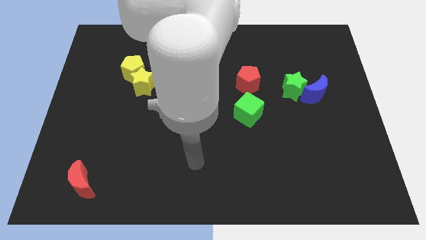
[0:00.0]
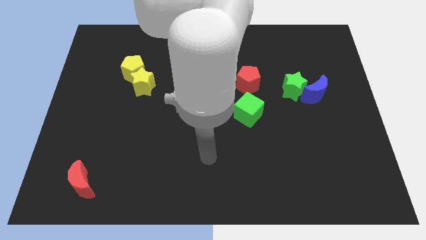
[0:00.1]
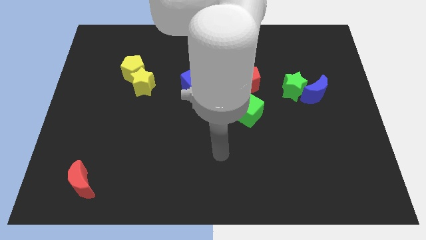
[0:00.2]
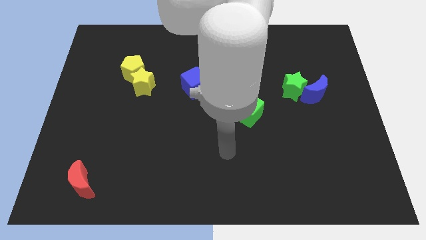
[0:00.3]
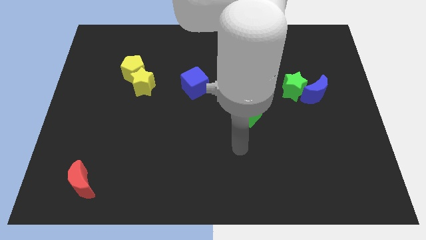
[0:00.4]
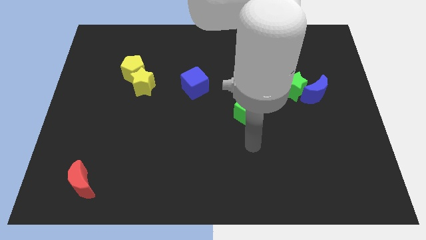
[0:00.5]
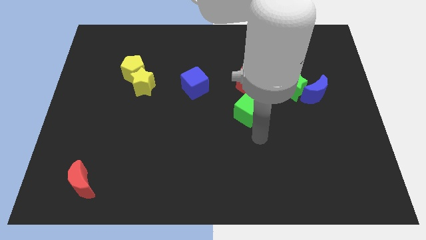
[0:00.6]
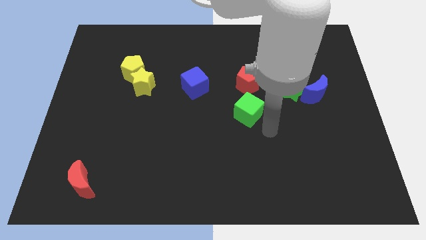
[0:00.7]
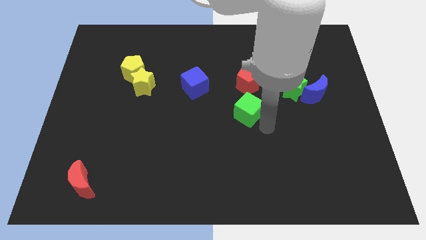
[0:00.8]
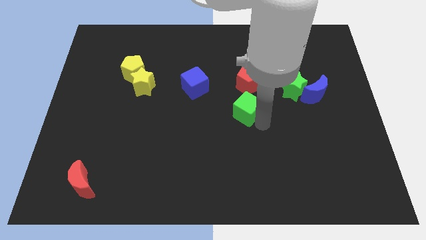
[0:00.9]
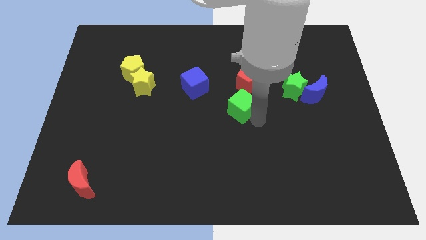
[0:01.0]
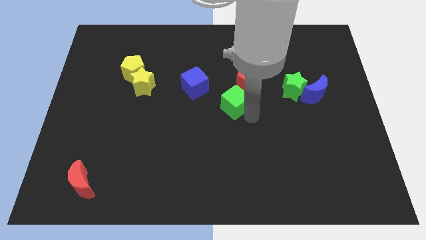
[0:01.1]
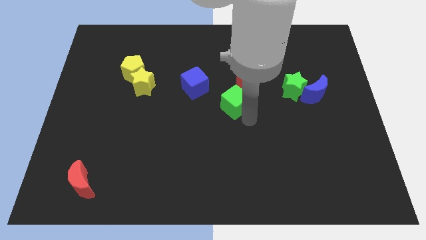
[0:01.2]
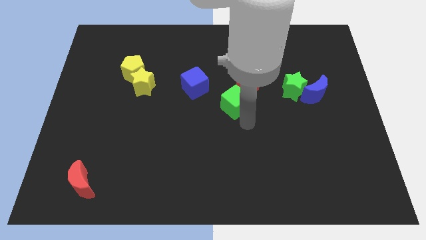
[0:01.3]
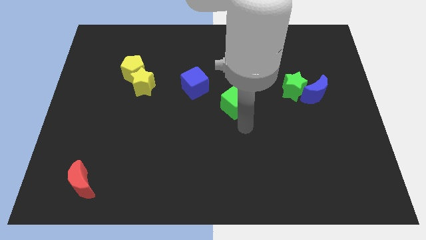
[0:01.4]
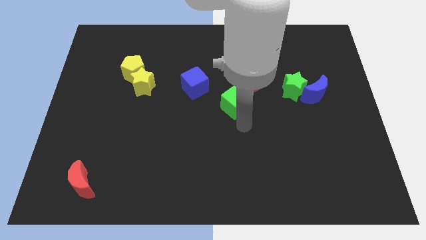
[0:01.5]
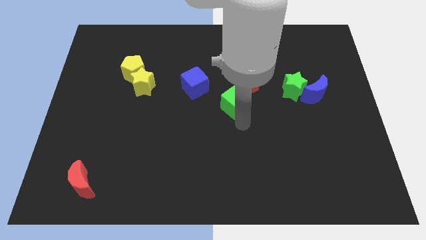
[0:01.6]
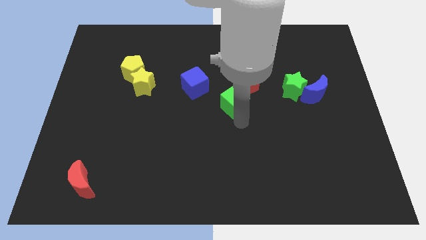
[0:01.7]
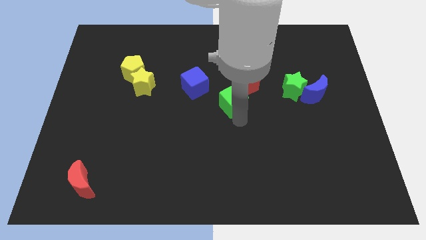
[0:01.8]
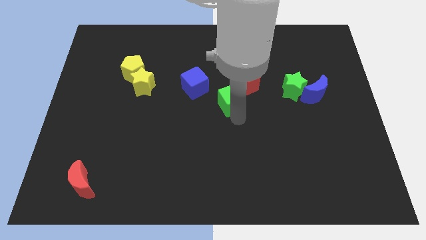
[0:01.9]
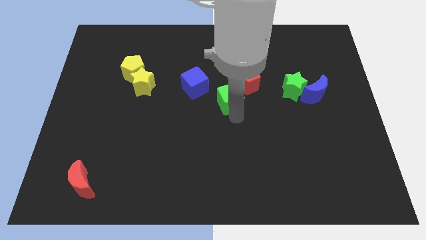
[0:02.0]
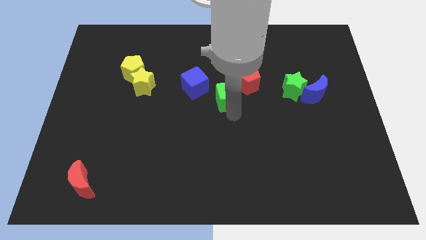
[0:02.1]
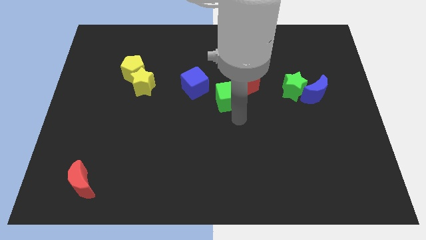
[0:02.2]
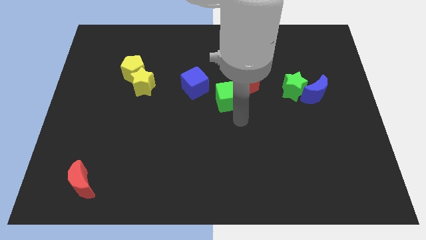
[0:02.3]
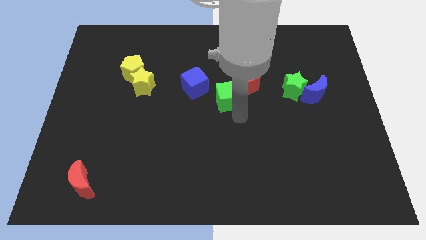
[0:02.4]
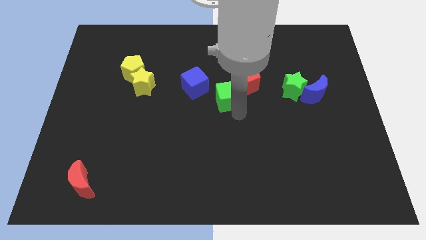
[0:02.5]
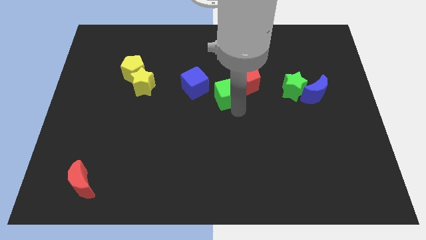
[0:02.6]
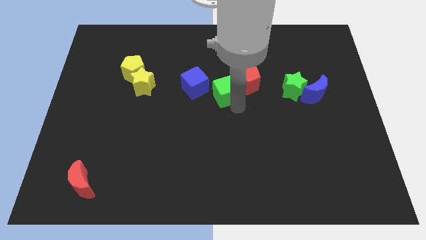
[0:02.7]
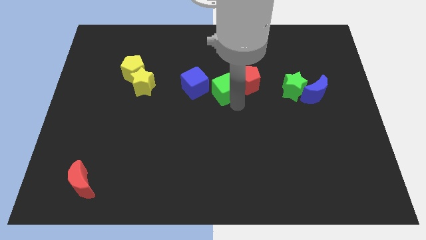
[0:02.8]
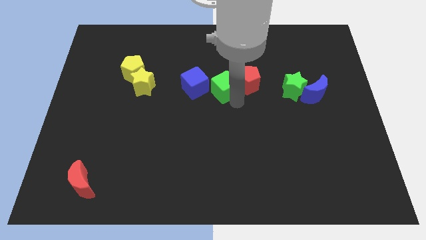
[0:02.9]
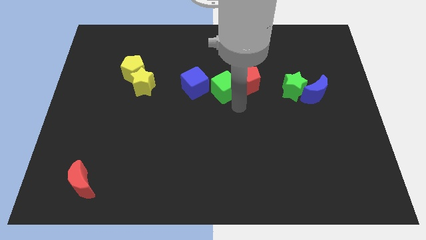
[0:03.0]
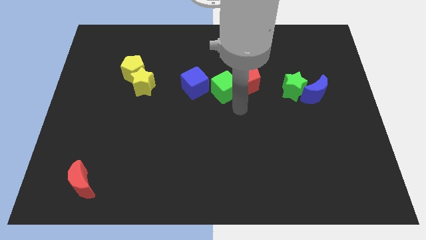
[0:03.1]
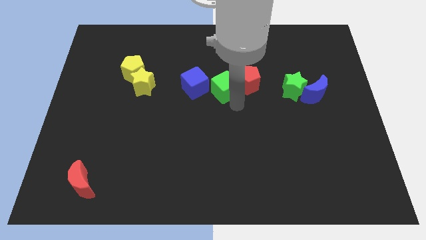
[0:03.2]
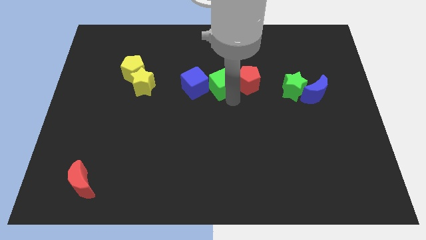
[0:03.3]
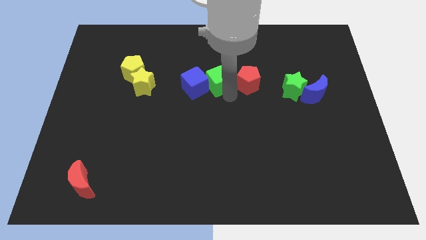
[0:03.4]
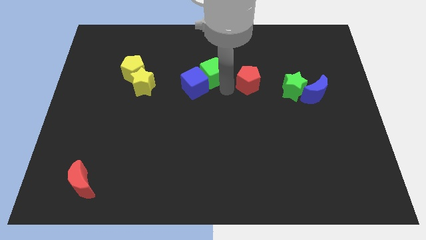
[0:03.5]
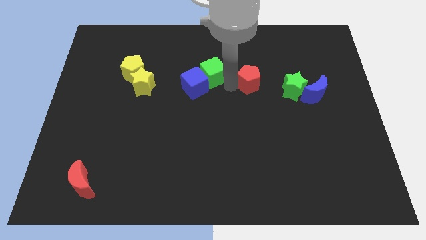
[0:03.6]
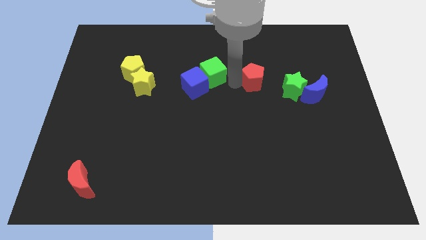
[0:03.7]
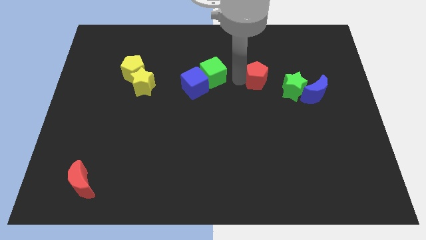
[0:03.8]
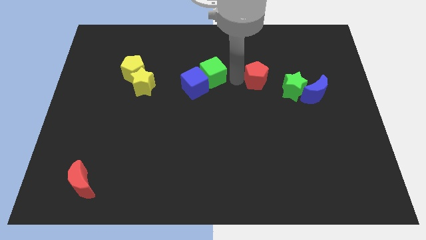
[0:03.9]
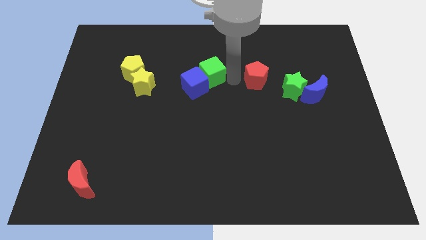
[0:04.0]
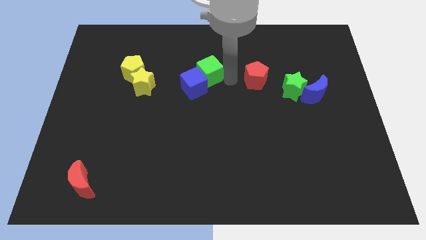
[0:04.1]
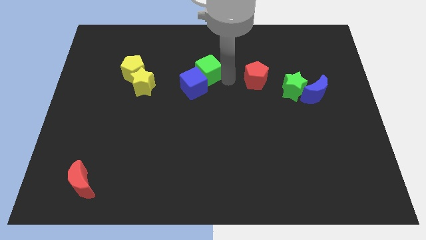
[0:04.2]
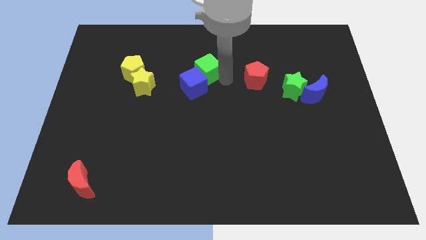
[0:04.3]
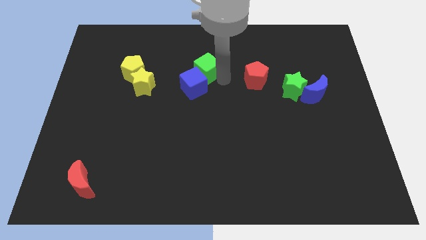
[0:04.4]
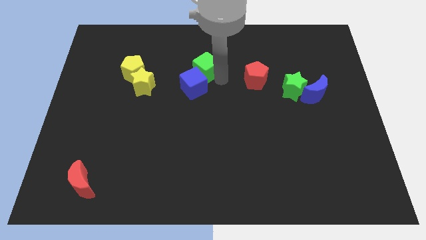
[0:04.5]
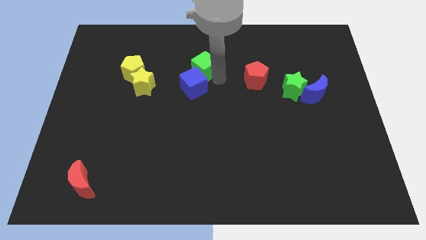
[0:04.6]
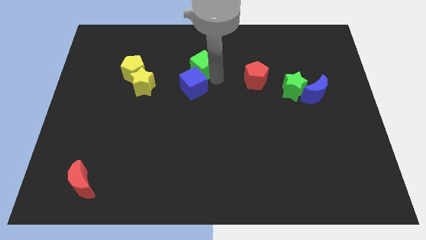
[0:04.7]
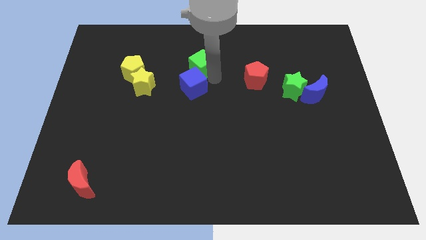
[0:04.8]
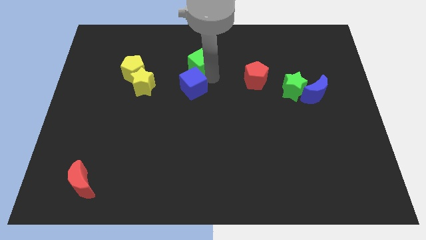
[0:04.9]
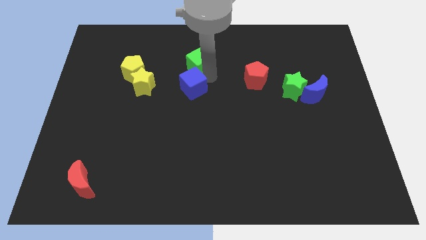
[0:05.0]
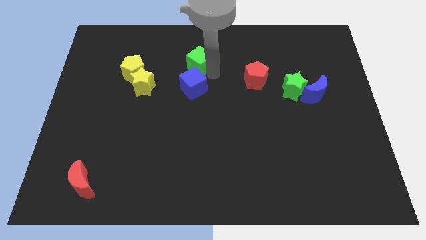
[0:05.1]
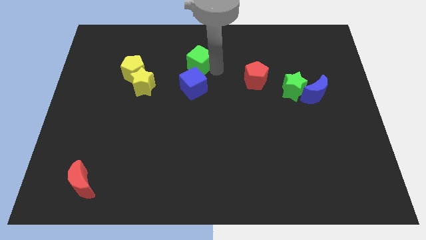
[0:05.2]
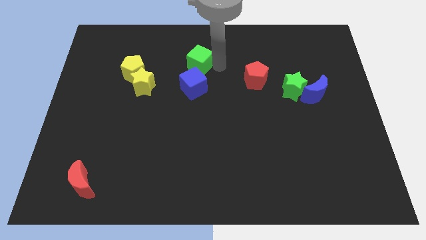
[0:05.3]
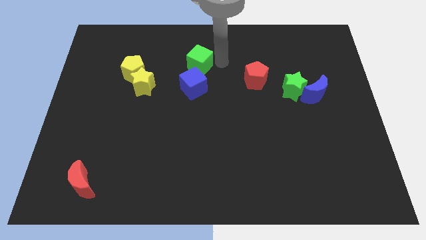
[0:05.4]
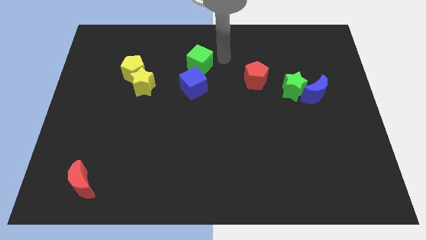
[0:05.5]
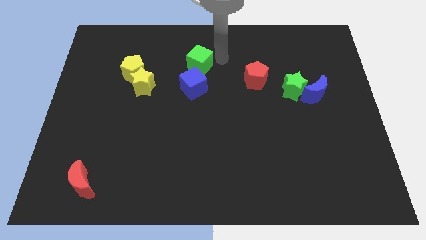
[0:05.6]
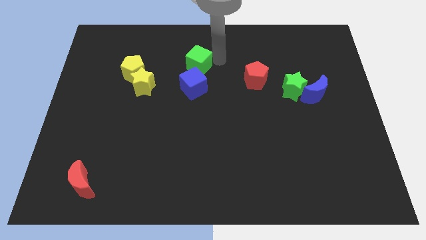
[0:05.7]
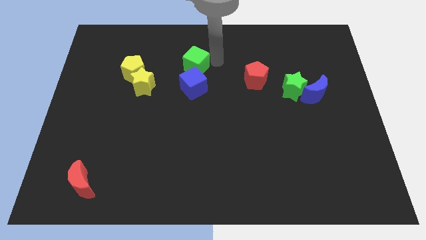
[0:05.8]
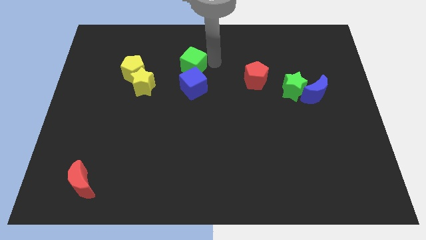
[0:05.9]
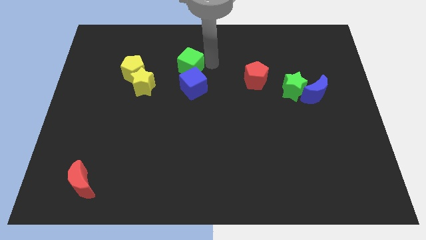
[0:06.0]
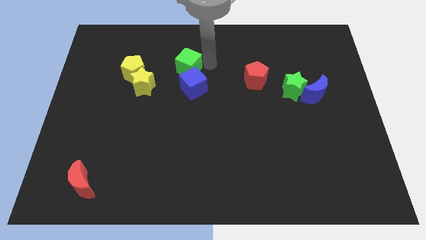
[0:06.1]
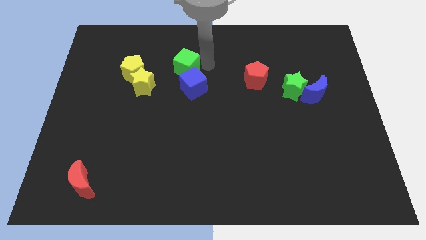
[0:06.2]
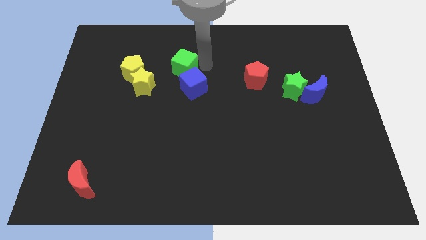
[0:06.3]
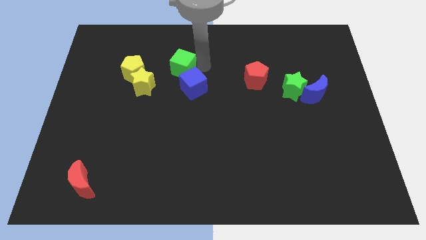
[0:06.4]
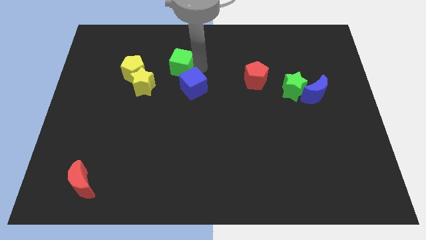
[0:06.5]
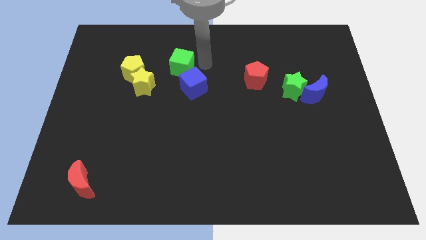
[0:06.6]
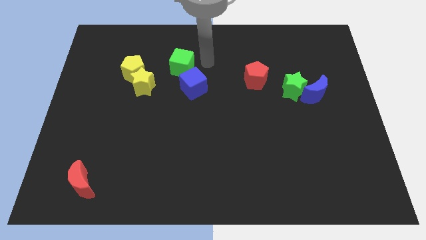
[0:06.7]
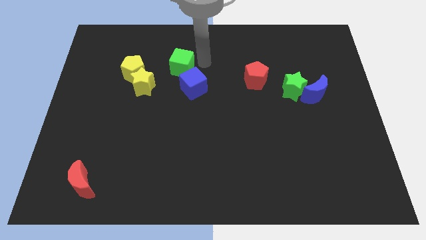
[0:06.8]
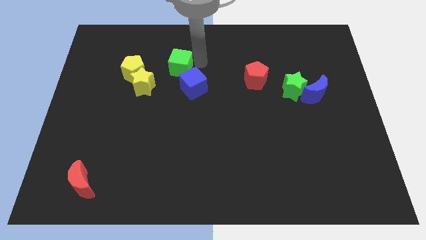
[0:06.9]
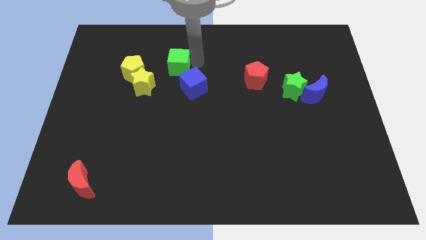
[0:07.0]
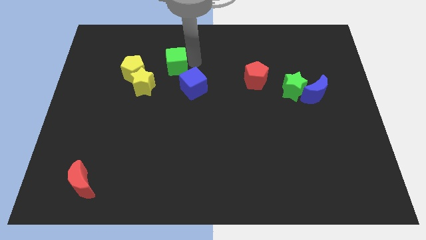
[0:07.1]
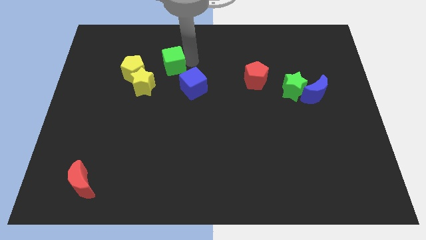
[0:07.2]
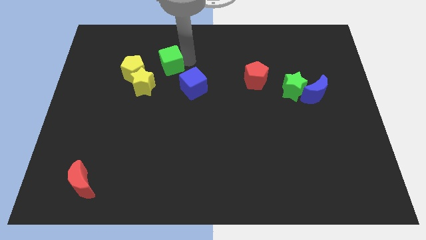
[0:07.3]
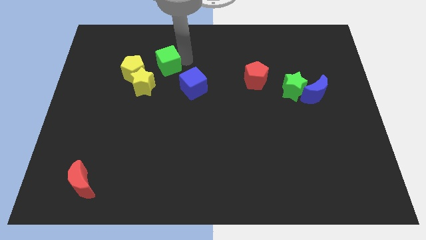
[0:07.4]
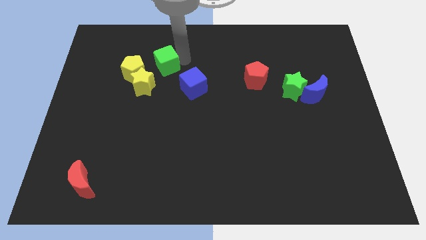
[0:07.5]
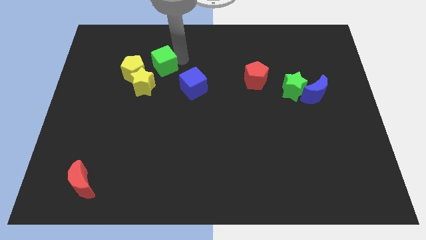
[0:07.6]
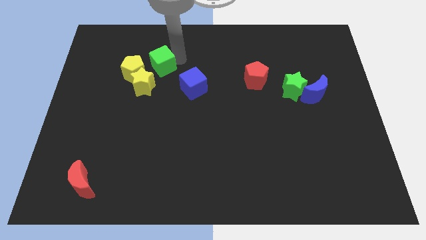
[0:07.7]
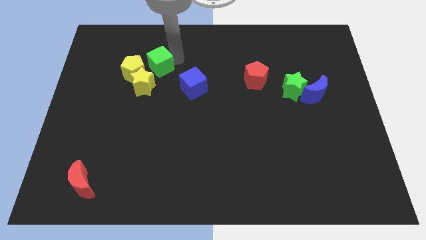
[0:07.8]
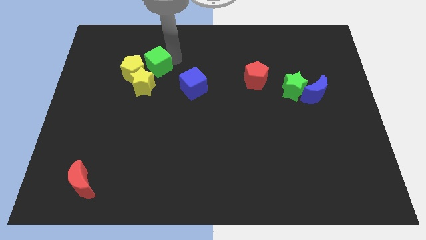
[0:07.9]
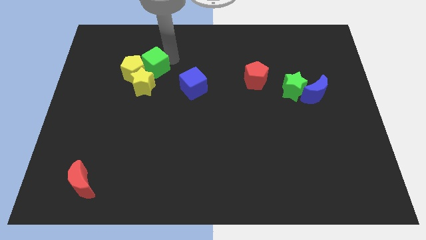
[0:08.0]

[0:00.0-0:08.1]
slide the green cube towards the yellow pentagon
